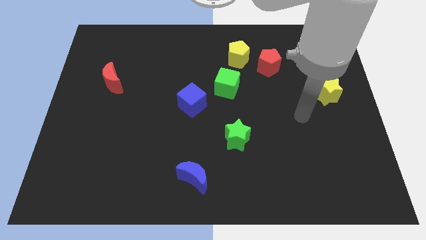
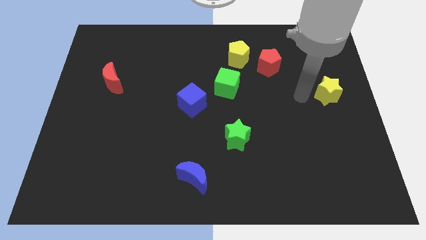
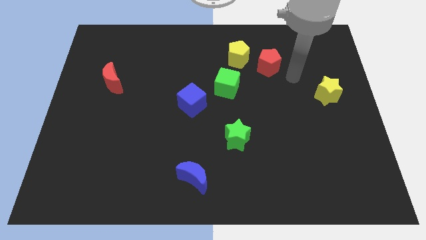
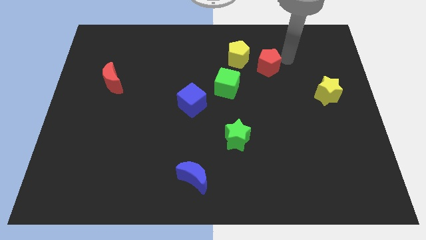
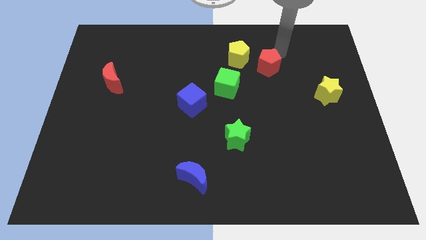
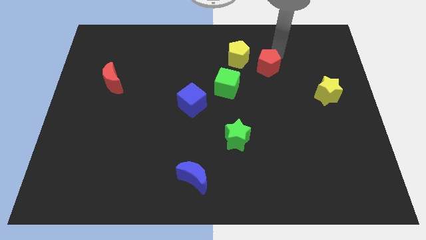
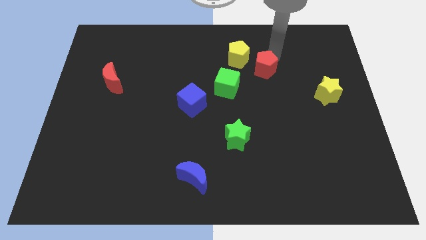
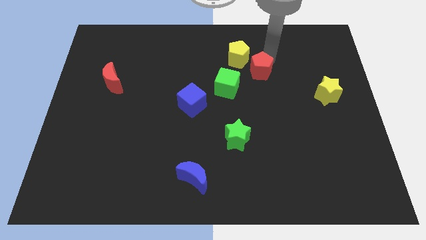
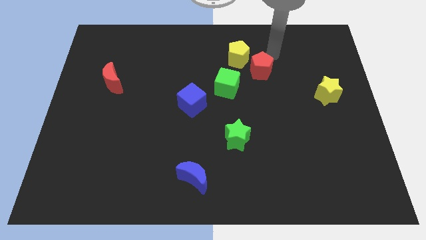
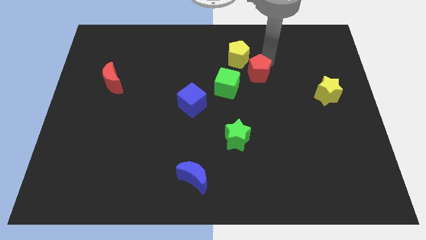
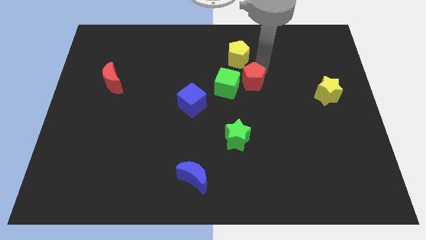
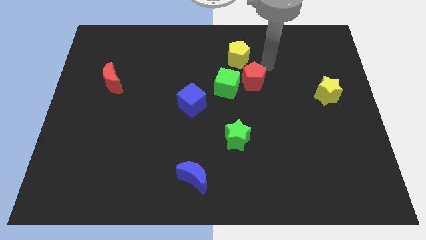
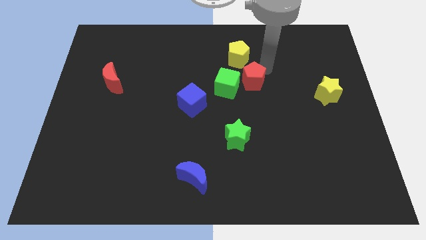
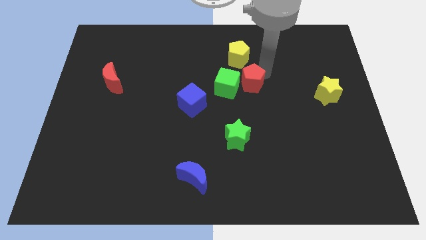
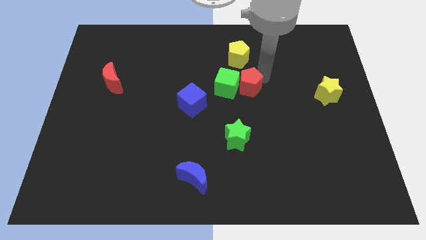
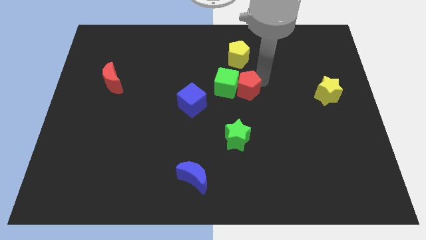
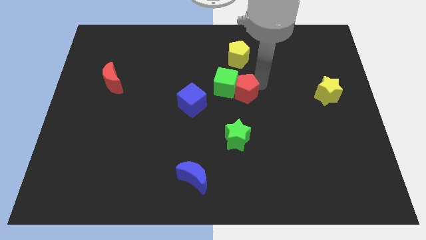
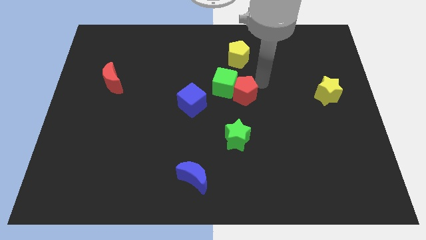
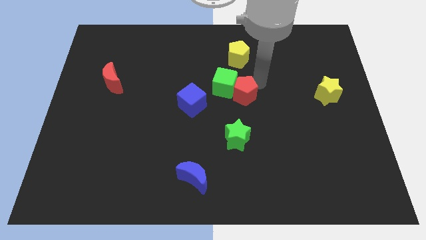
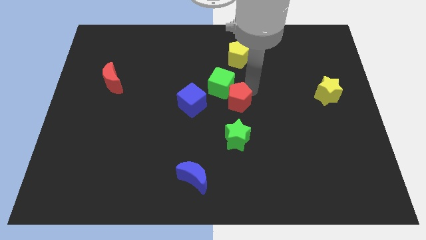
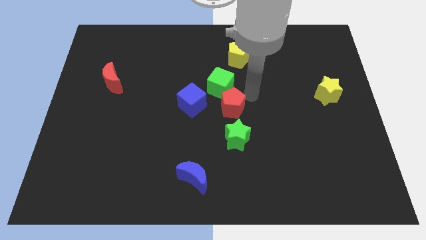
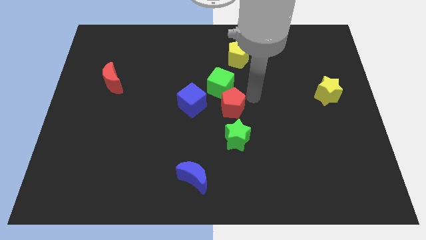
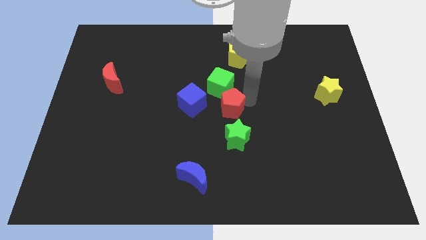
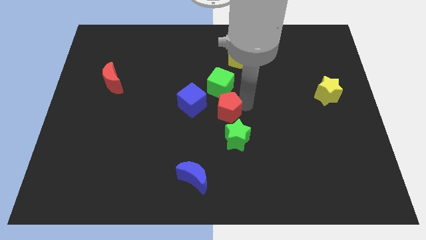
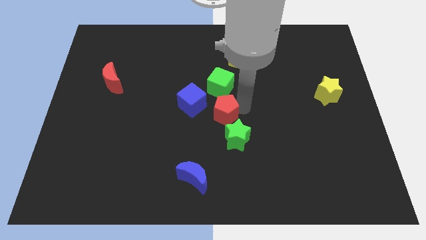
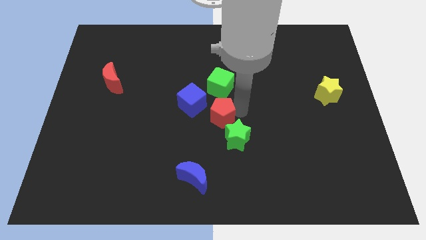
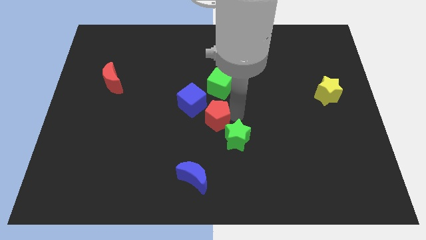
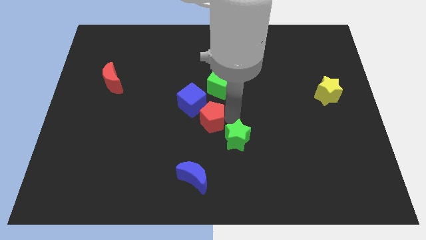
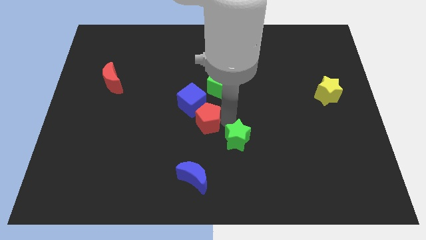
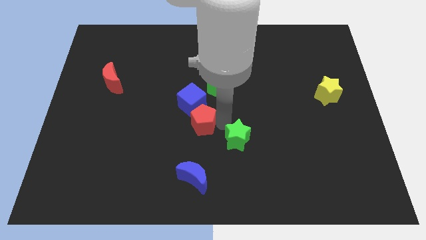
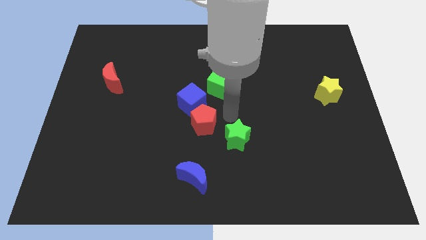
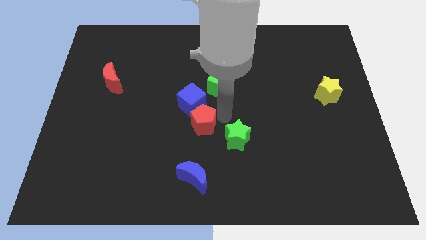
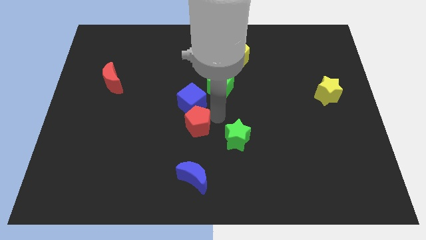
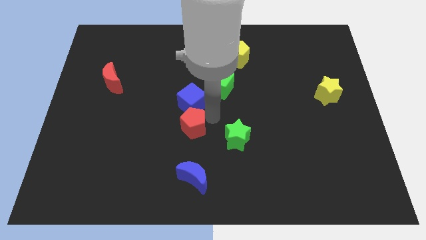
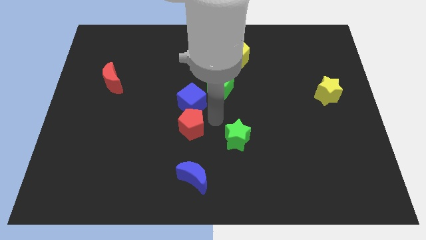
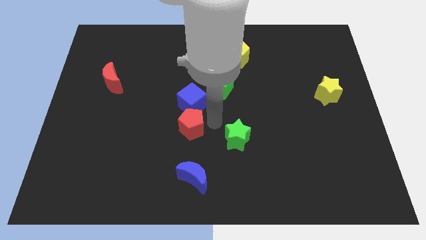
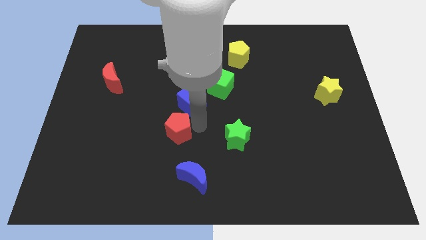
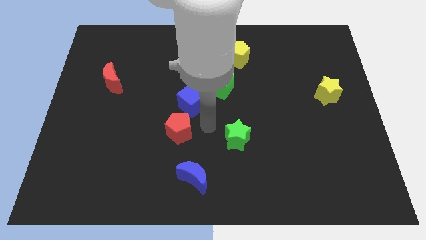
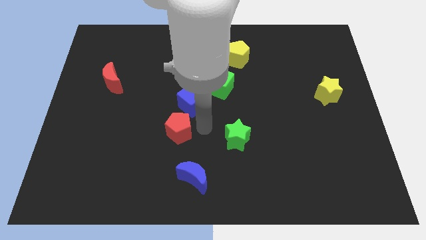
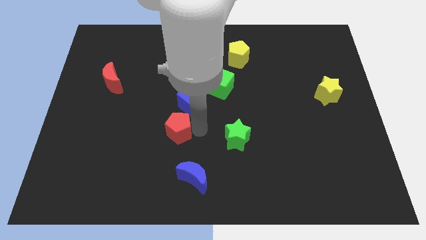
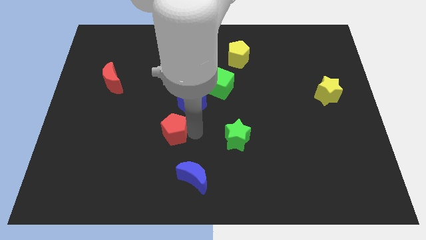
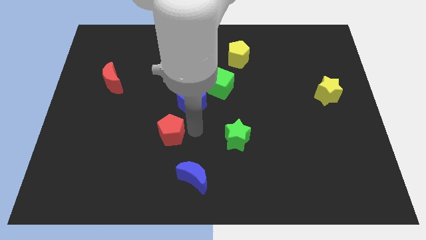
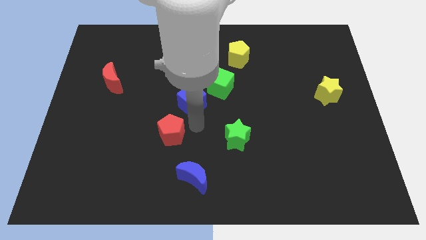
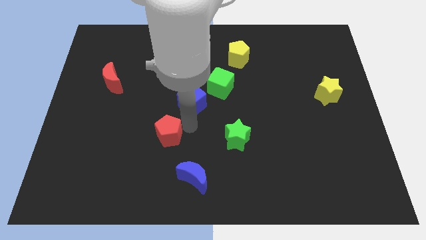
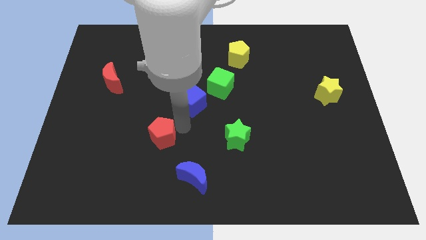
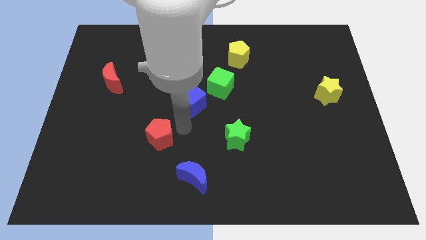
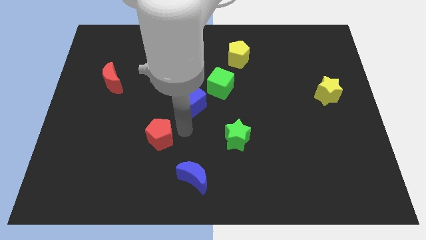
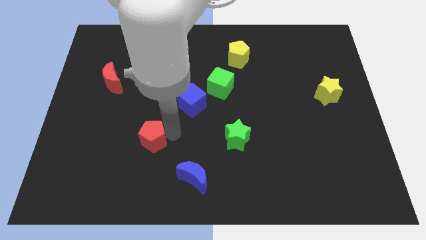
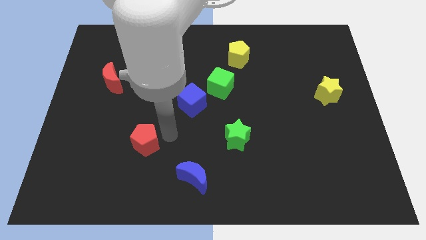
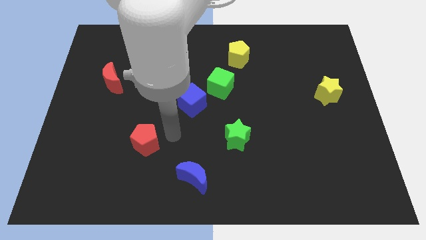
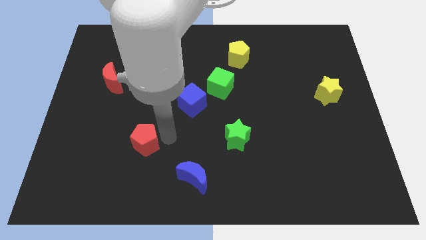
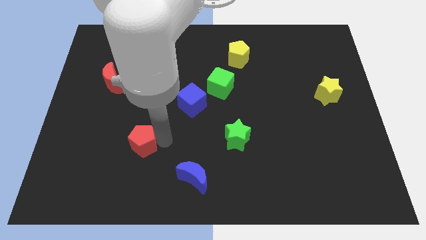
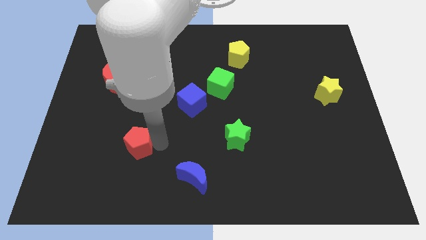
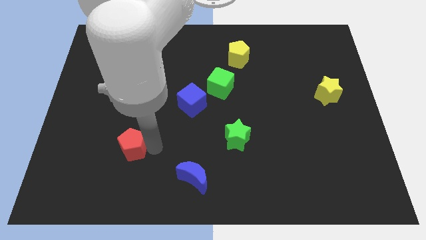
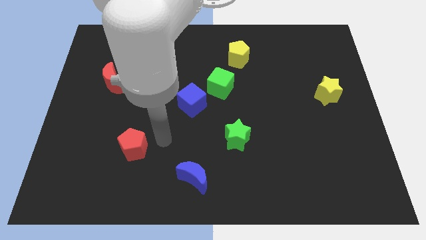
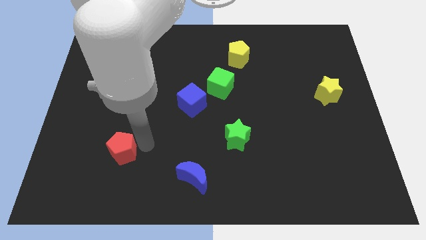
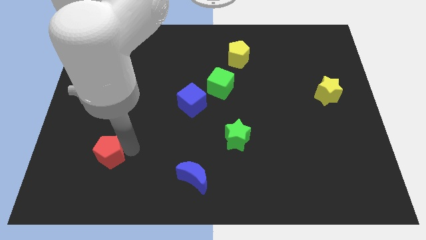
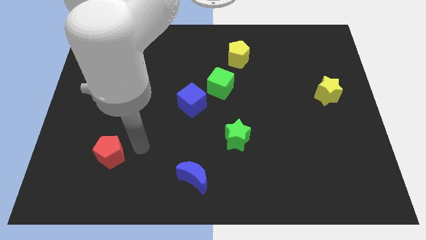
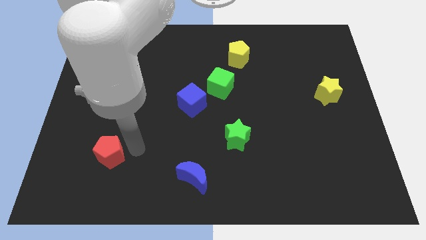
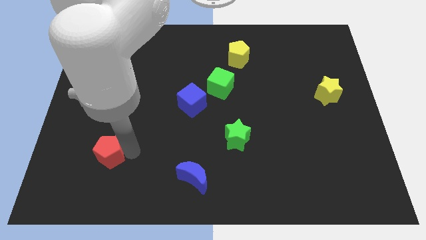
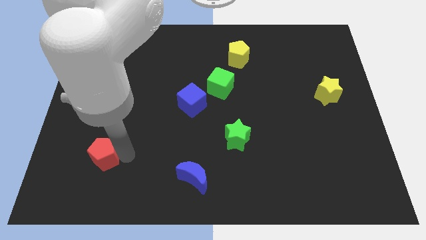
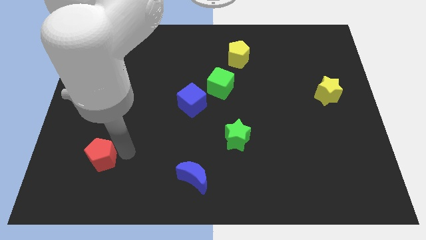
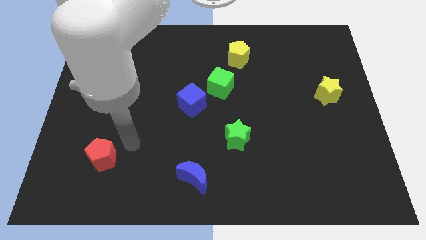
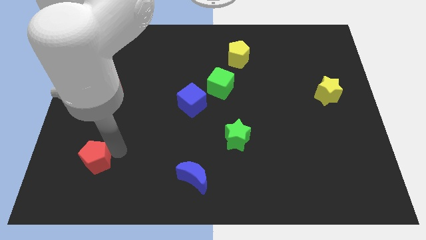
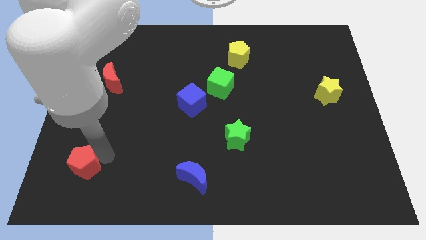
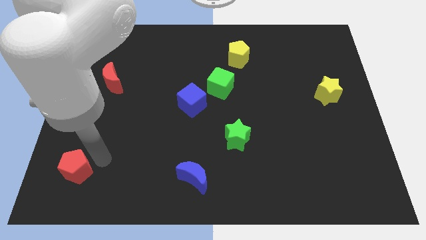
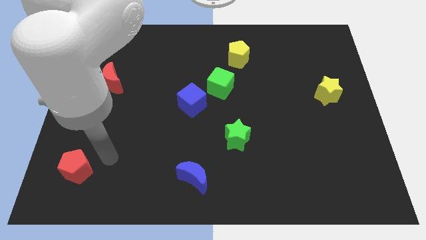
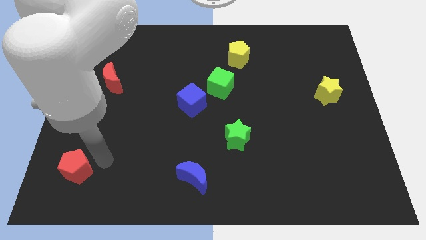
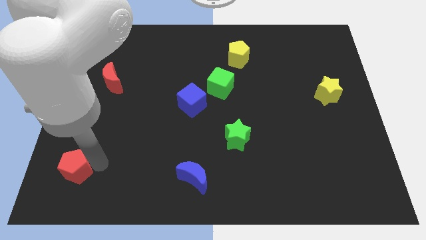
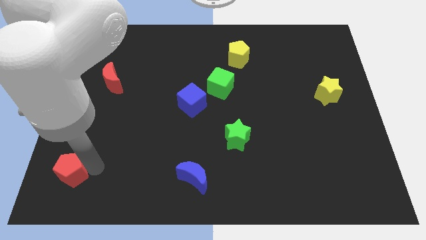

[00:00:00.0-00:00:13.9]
push the red pentagon to the bottom left
